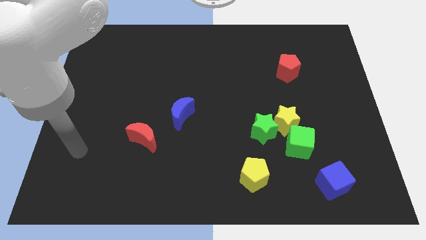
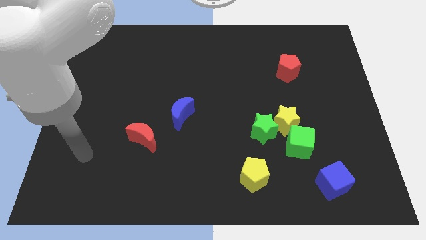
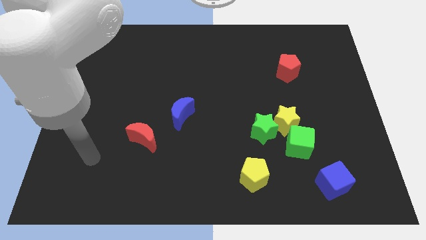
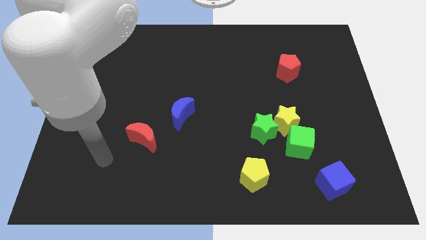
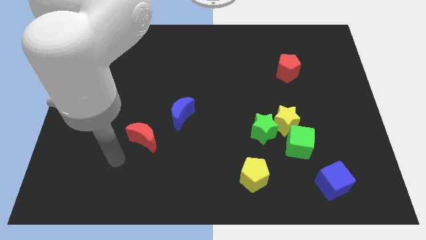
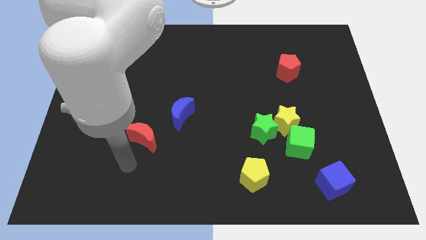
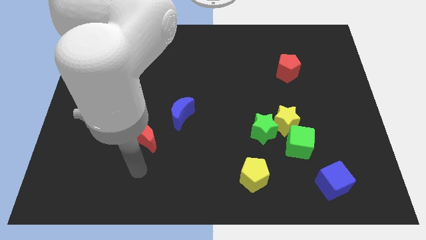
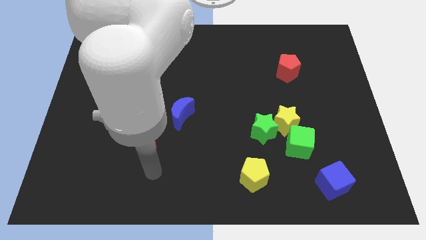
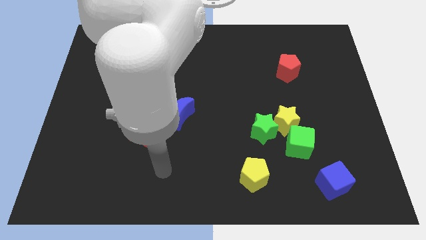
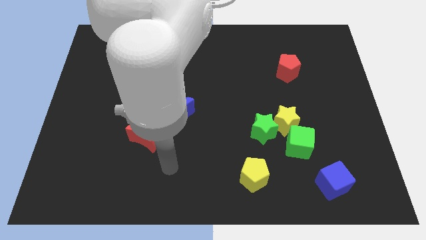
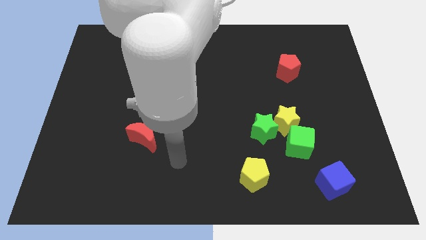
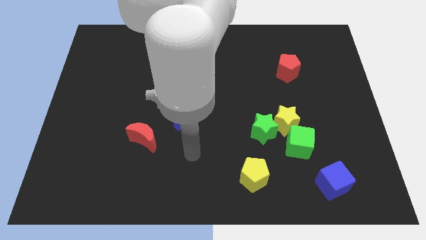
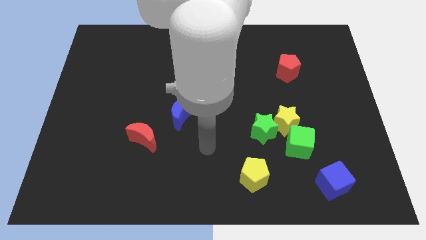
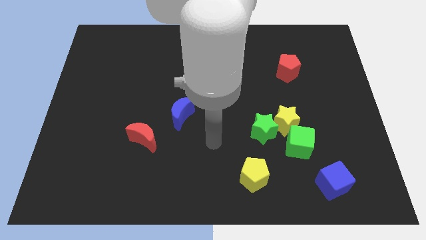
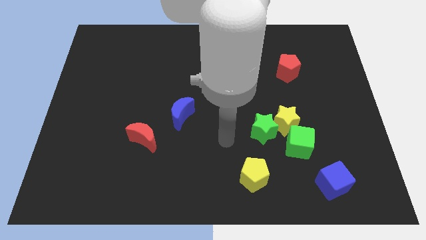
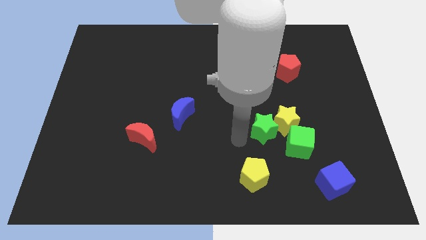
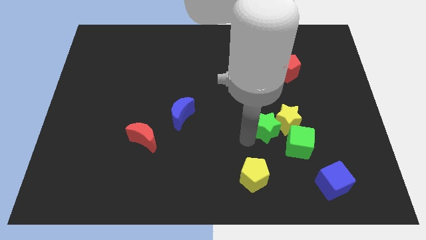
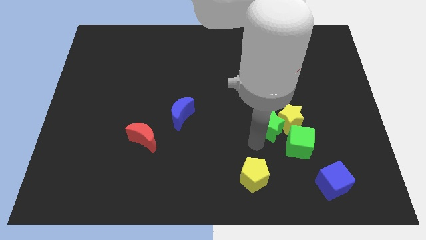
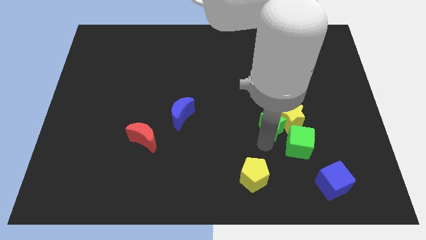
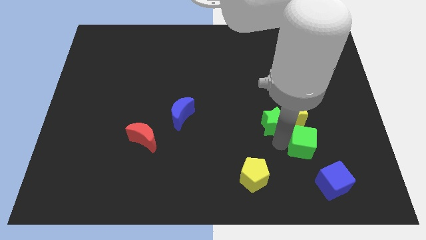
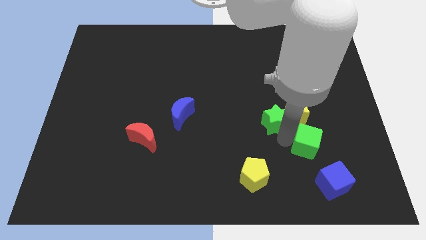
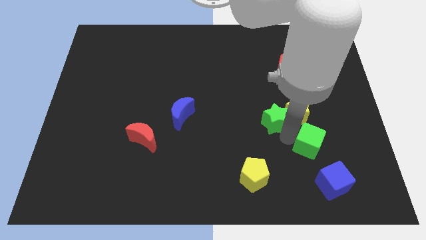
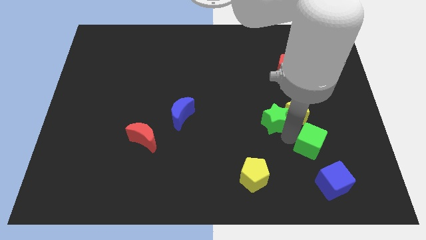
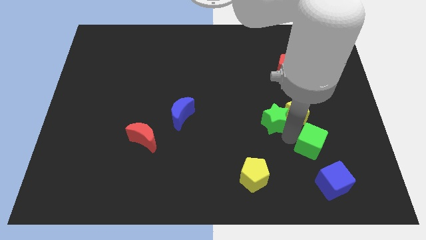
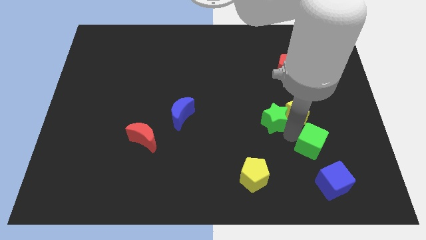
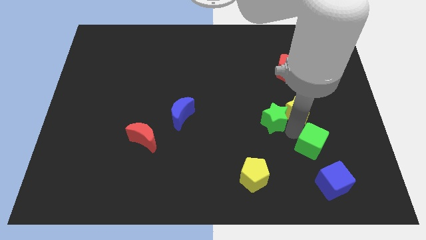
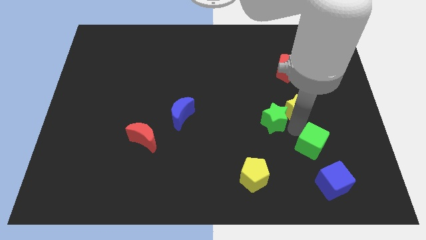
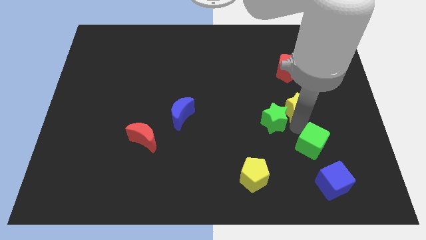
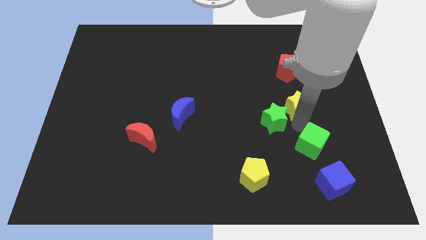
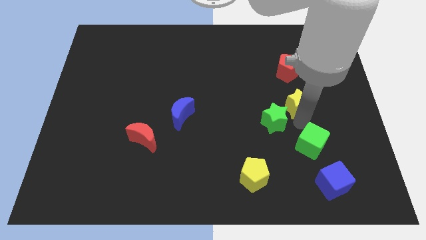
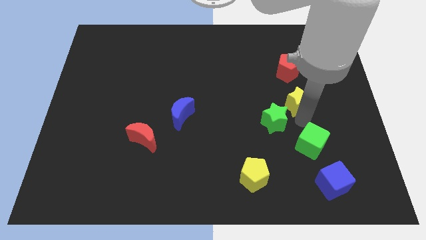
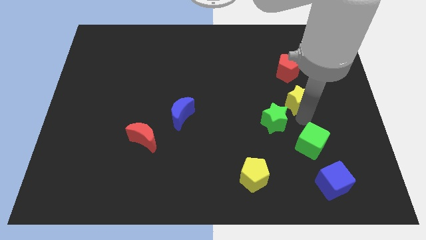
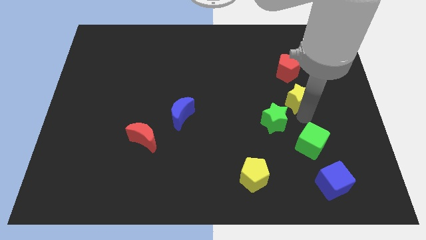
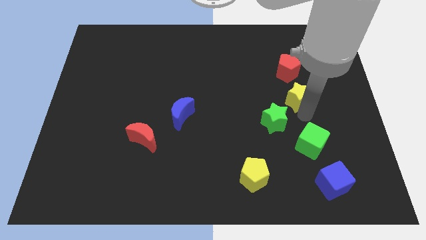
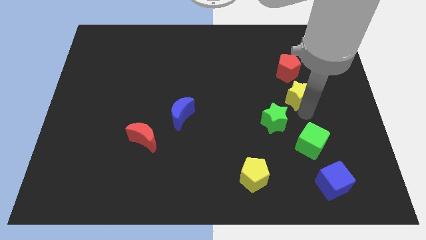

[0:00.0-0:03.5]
move the yellow star away from the green star and green cube

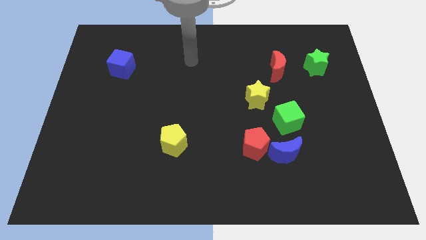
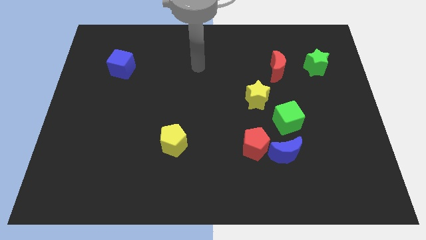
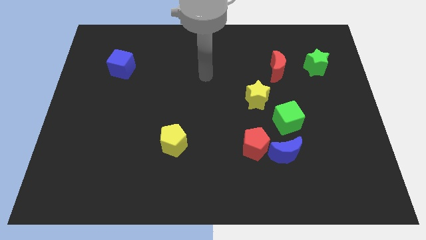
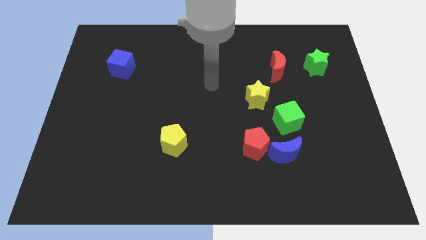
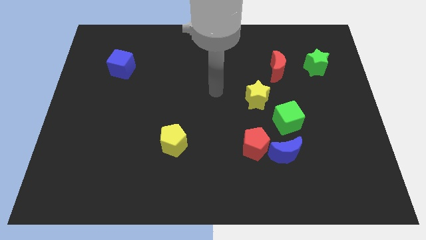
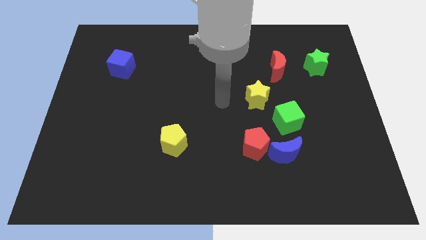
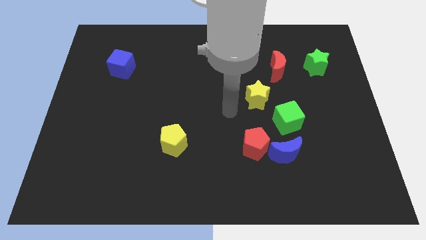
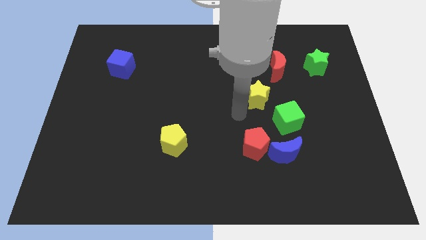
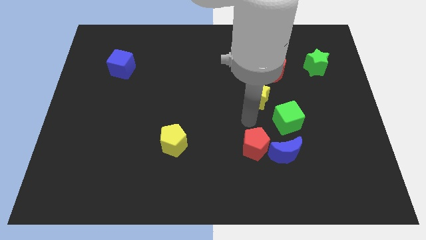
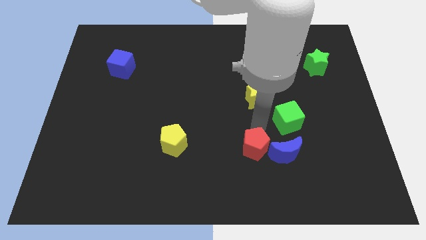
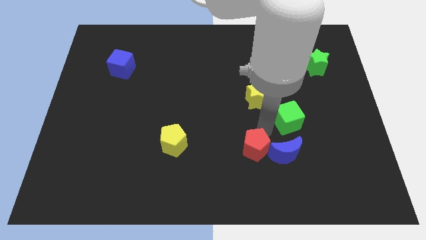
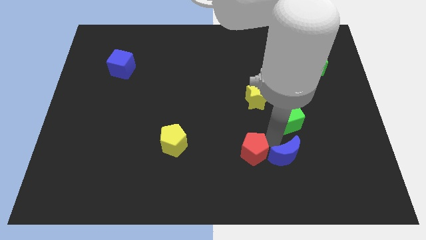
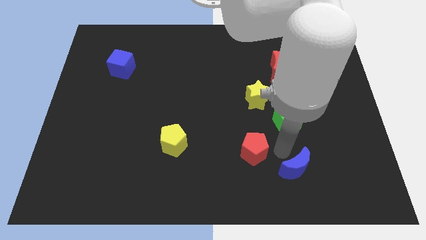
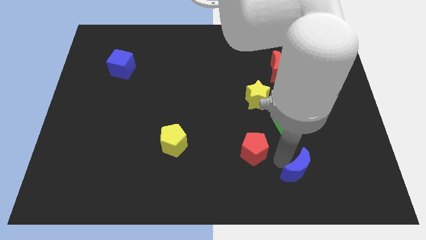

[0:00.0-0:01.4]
pull the red pentagon apart from the blue moon

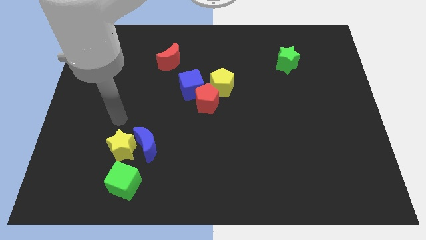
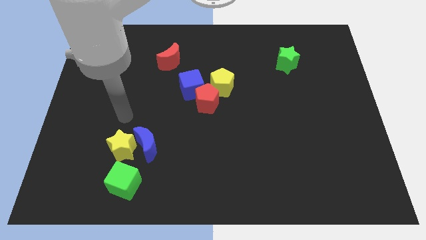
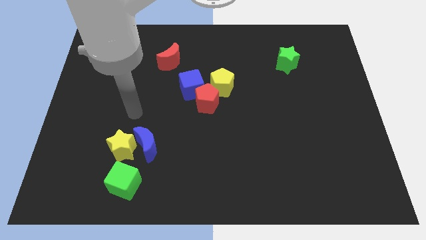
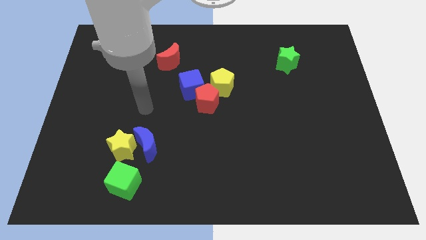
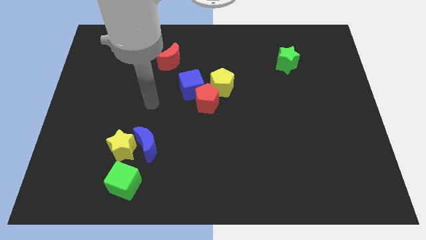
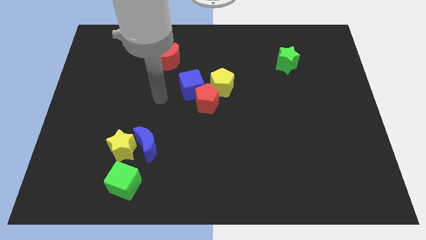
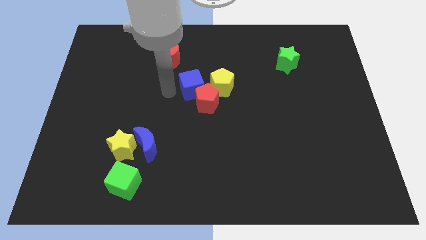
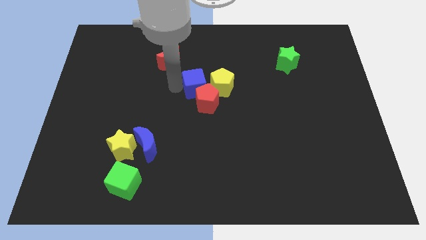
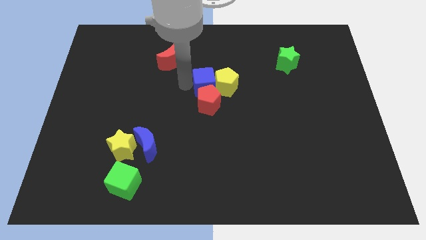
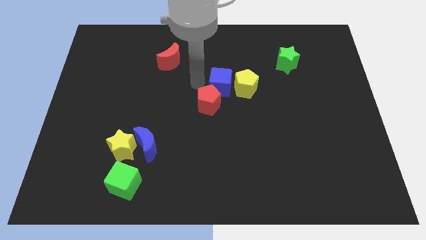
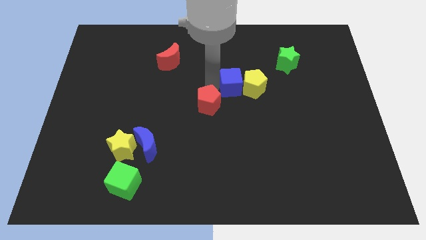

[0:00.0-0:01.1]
move the red pentagon away from the blue cube and yellow pentagon

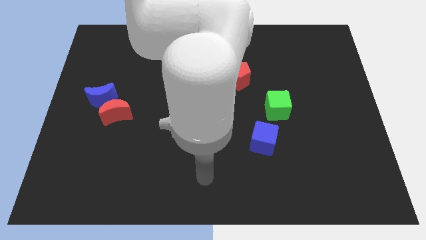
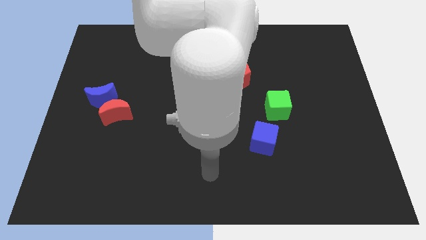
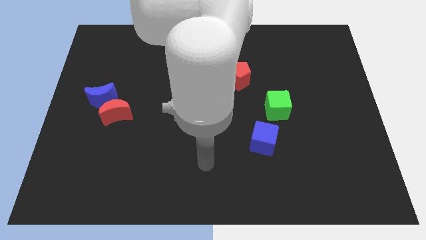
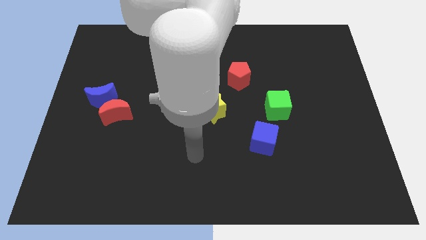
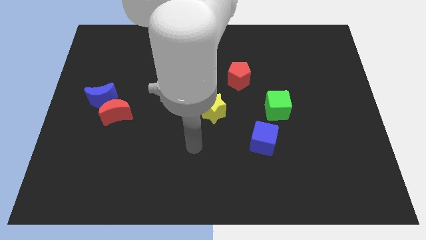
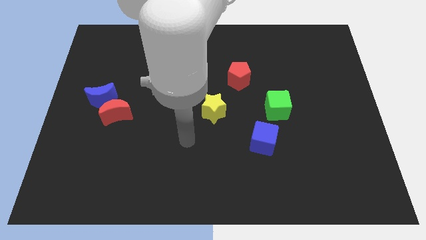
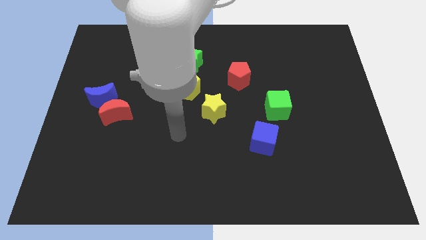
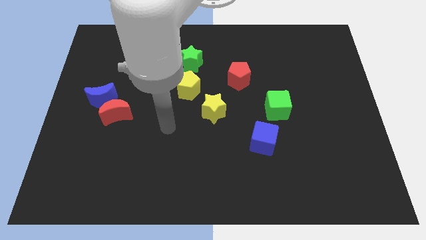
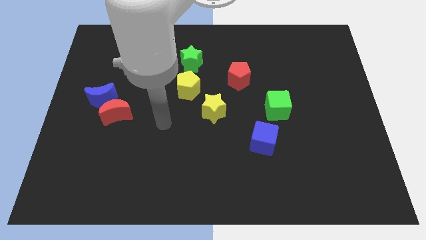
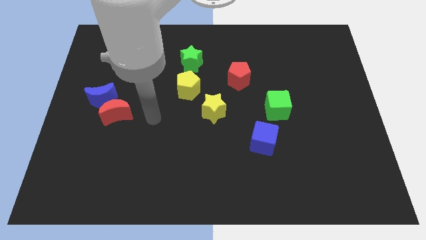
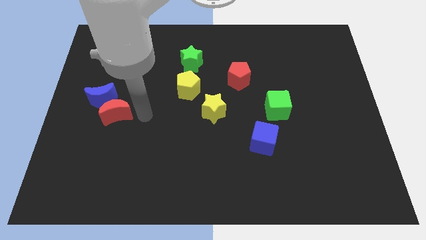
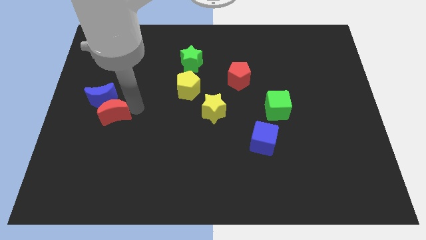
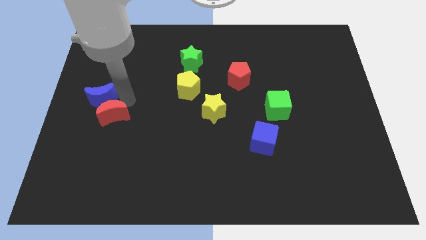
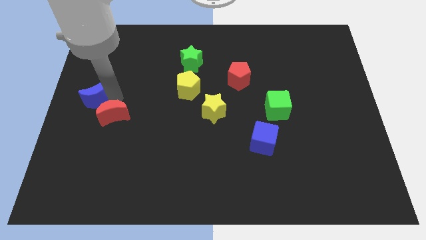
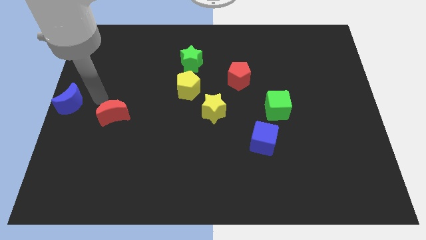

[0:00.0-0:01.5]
pull the red moon apart from the blue moon

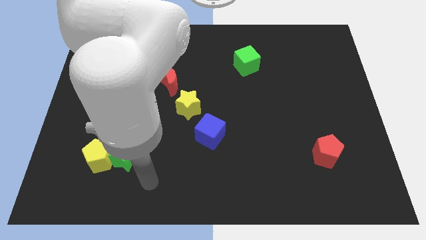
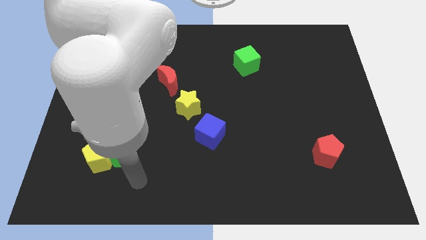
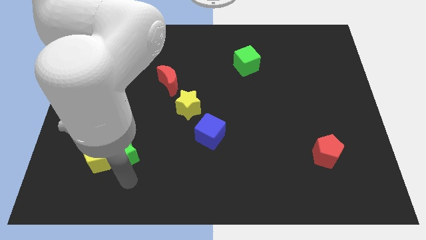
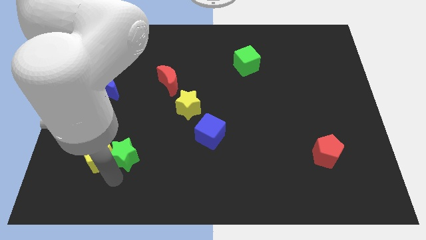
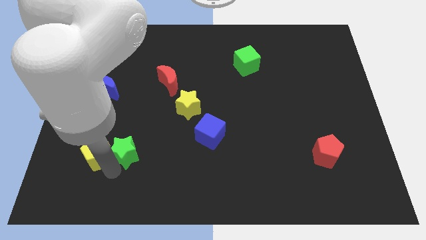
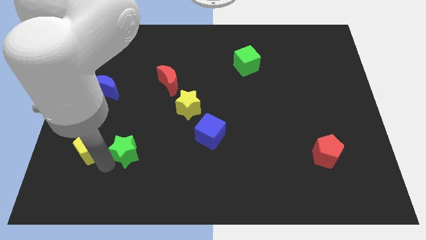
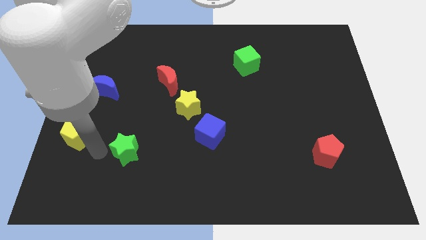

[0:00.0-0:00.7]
separate the green star from the yellow pentagon

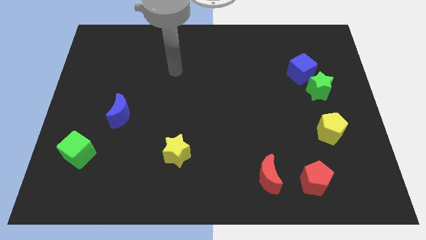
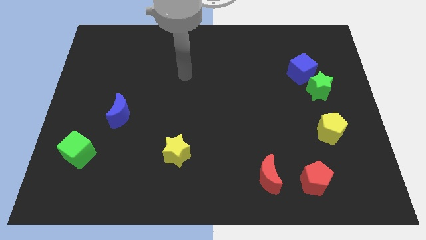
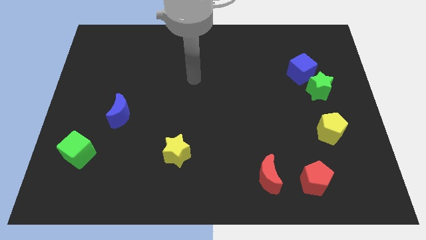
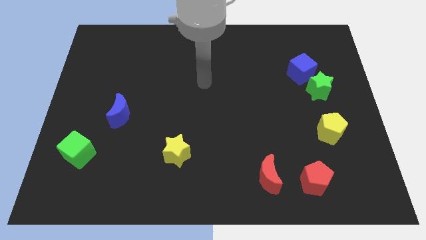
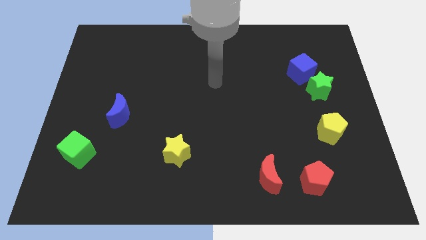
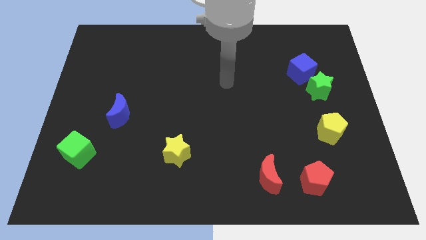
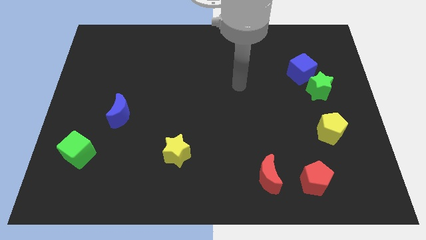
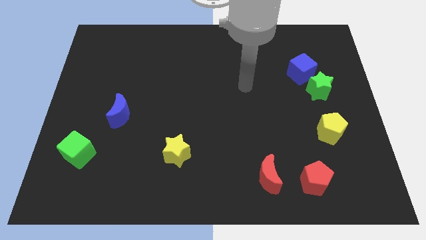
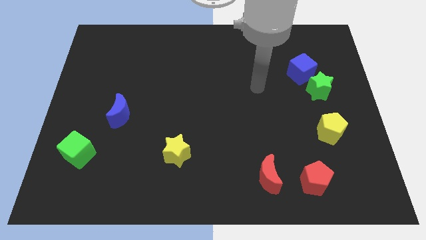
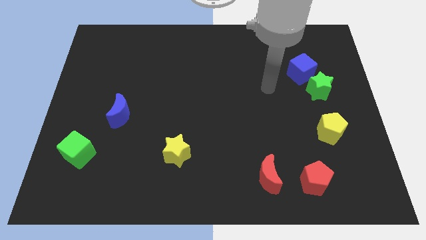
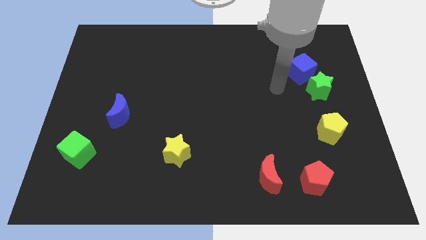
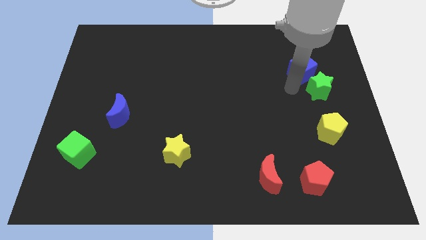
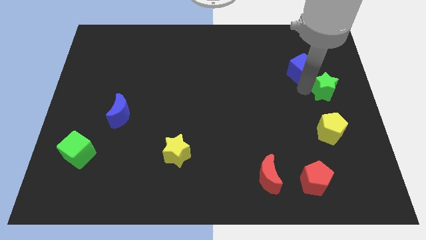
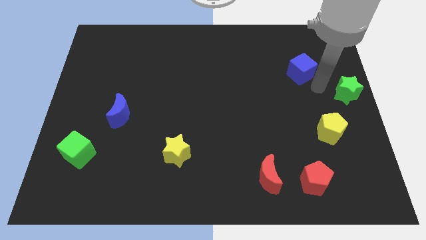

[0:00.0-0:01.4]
pull the blue cube apart from the green star
